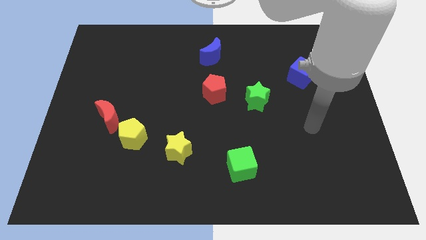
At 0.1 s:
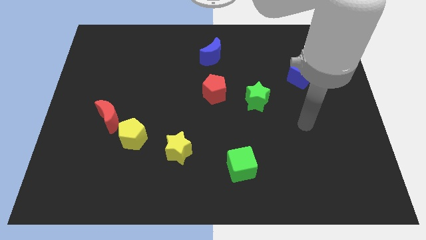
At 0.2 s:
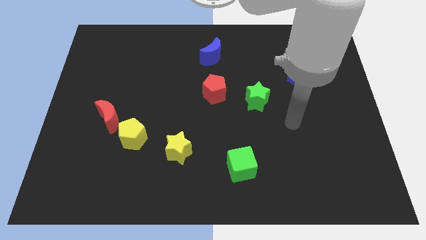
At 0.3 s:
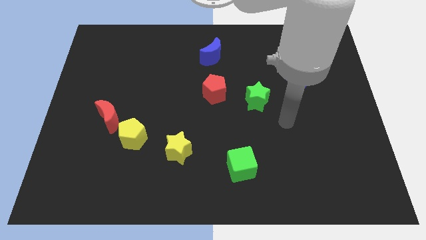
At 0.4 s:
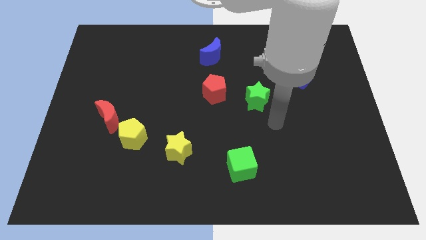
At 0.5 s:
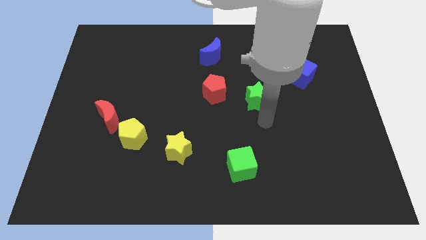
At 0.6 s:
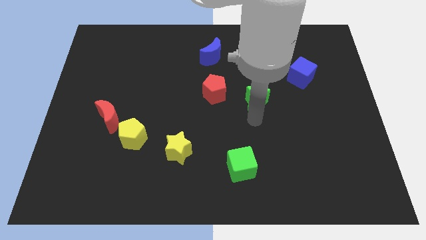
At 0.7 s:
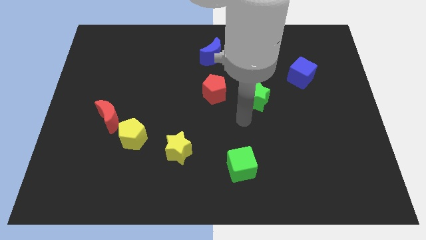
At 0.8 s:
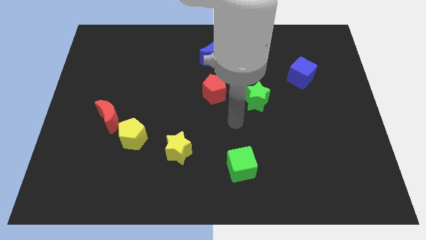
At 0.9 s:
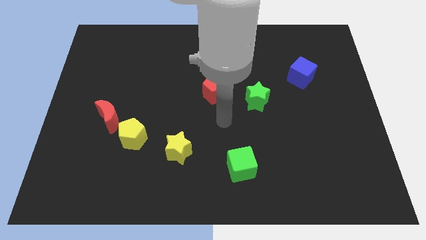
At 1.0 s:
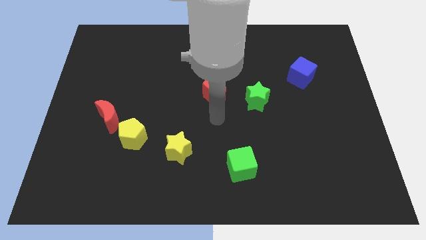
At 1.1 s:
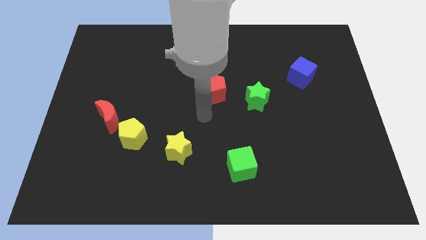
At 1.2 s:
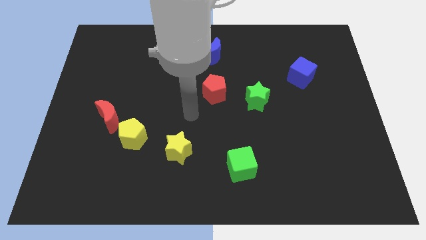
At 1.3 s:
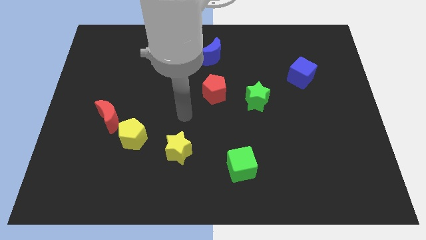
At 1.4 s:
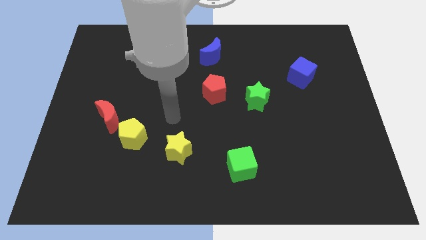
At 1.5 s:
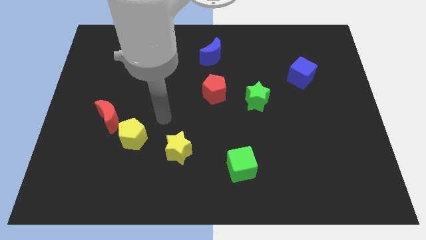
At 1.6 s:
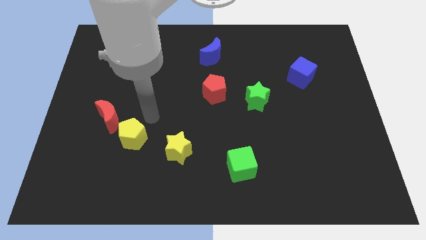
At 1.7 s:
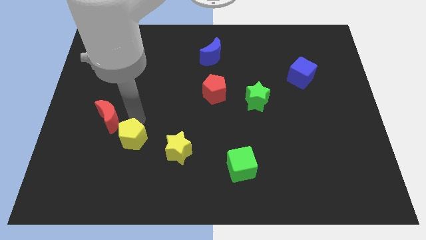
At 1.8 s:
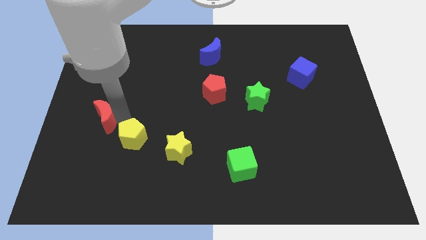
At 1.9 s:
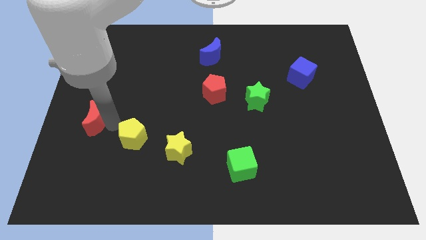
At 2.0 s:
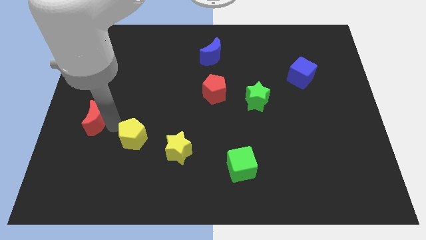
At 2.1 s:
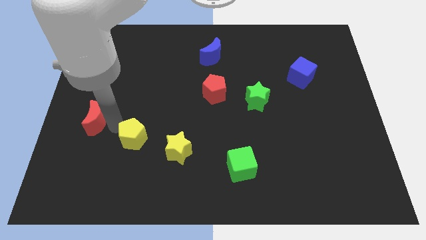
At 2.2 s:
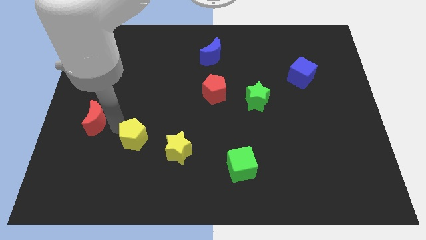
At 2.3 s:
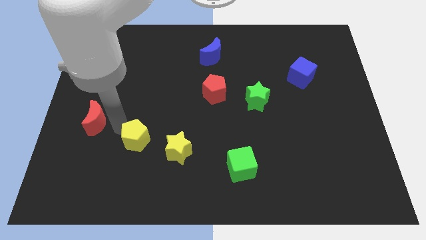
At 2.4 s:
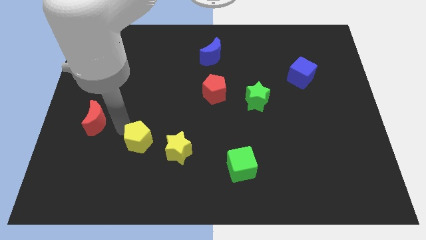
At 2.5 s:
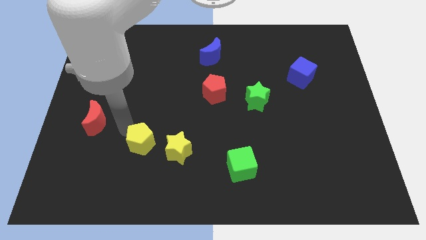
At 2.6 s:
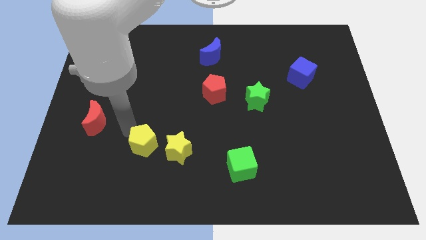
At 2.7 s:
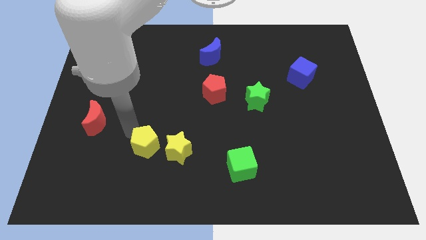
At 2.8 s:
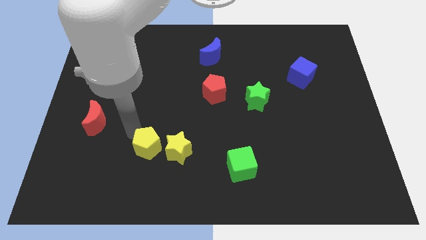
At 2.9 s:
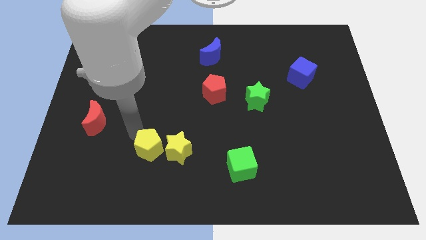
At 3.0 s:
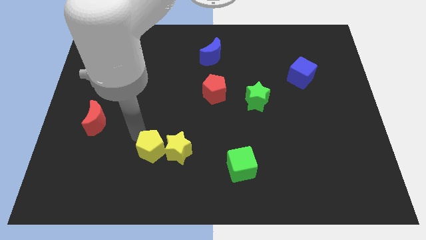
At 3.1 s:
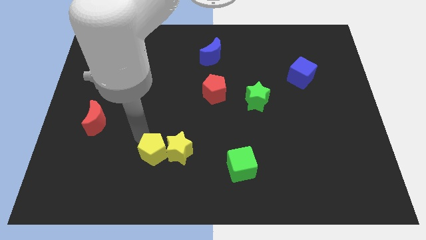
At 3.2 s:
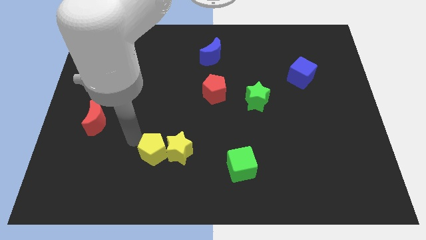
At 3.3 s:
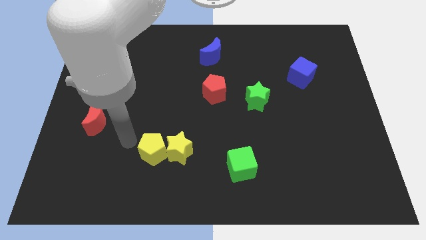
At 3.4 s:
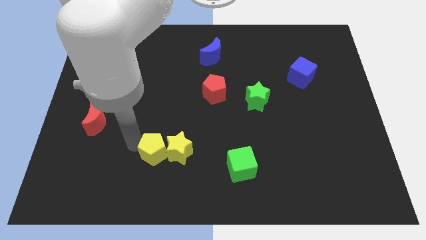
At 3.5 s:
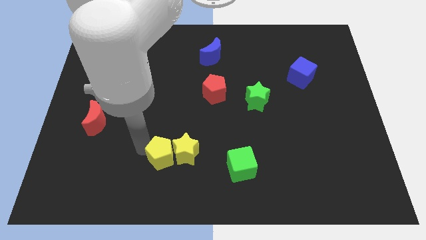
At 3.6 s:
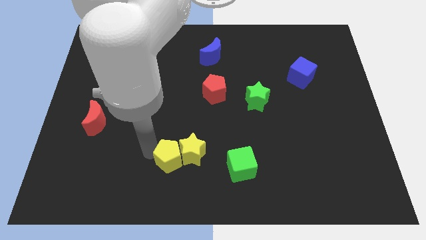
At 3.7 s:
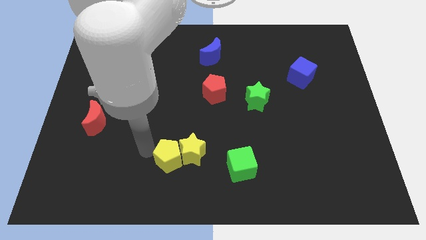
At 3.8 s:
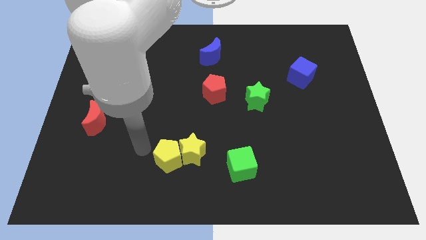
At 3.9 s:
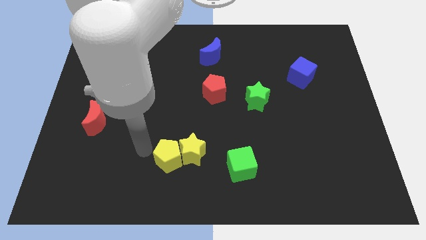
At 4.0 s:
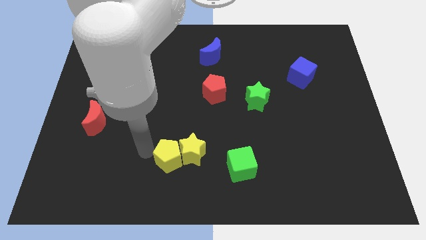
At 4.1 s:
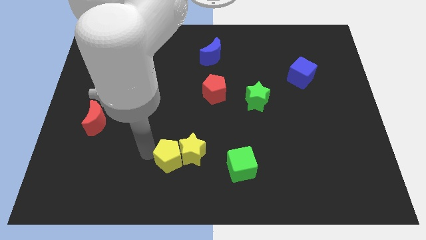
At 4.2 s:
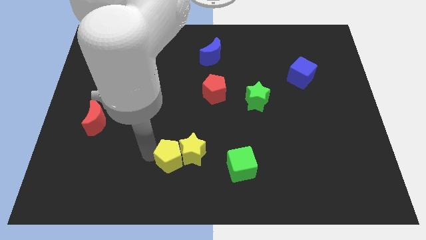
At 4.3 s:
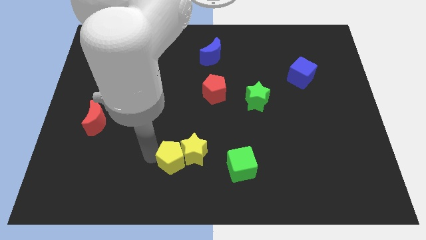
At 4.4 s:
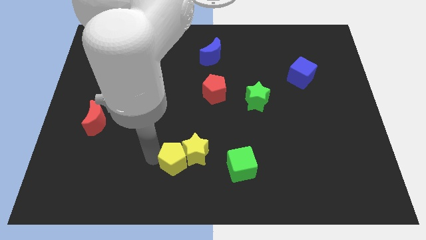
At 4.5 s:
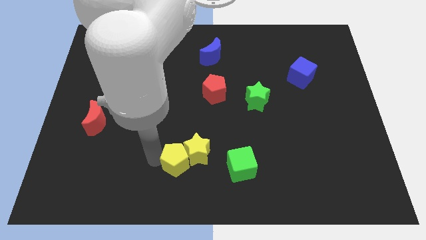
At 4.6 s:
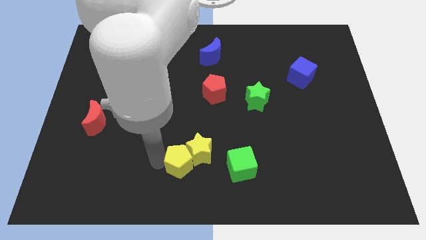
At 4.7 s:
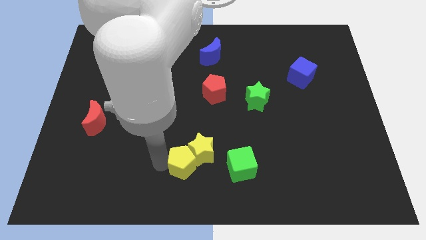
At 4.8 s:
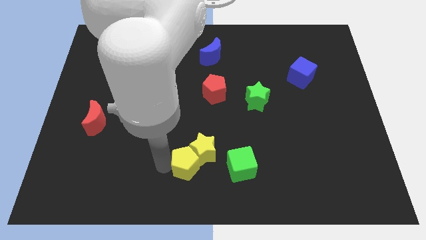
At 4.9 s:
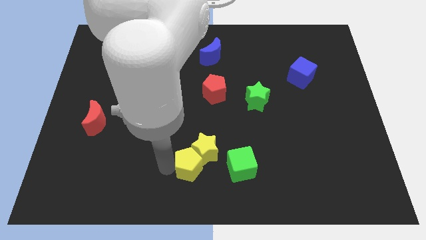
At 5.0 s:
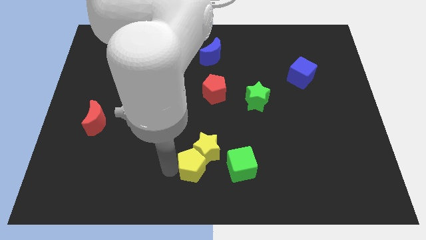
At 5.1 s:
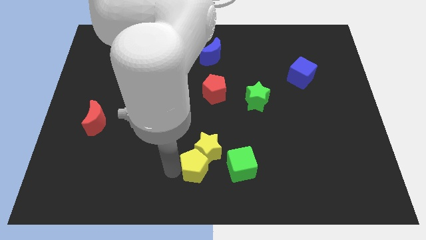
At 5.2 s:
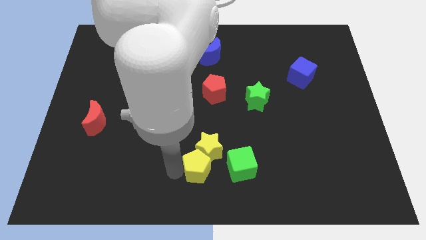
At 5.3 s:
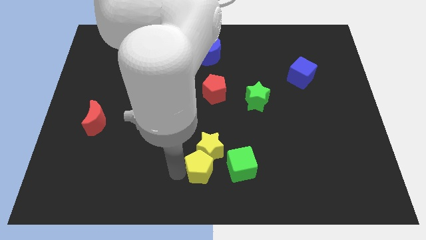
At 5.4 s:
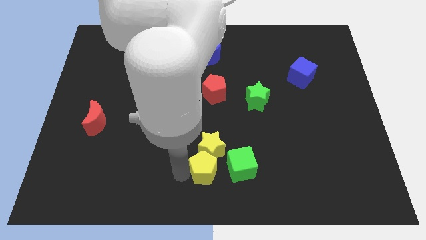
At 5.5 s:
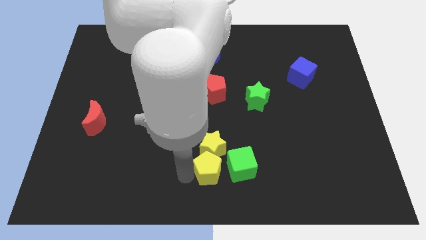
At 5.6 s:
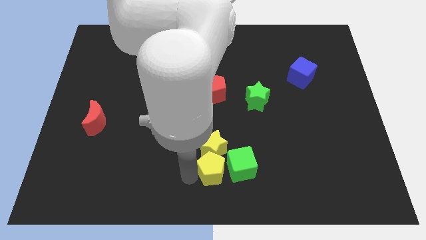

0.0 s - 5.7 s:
put the yellow pentagon close to the green cube

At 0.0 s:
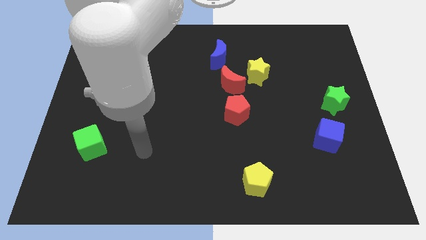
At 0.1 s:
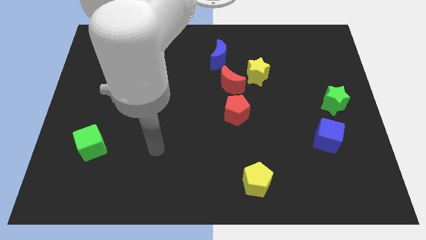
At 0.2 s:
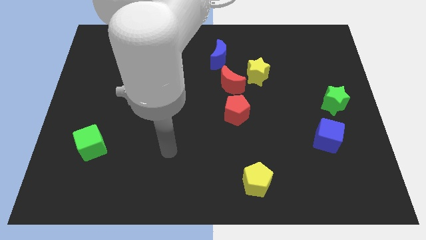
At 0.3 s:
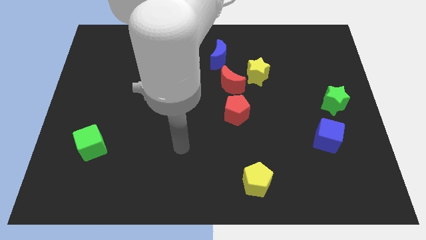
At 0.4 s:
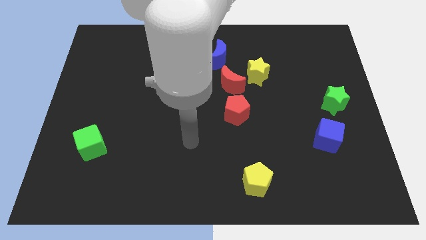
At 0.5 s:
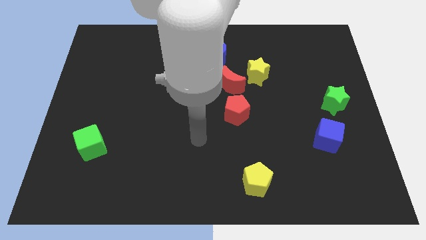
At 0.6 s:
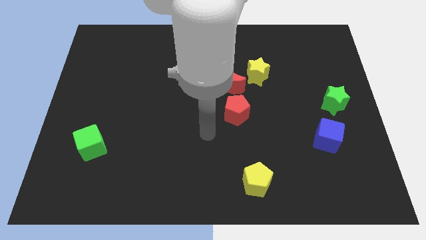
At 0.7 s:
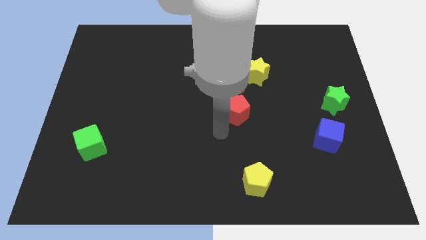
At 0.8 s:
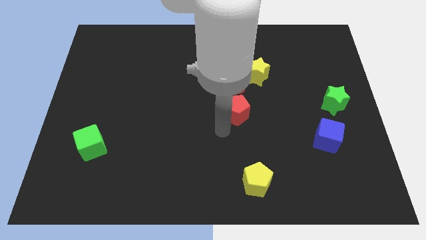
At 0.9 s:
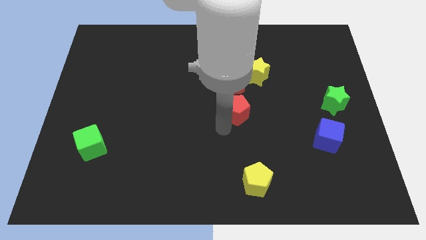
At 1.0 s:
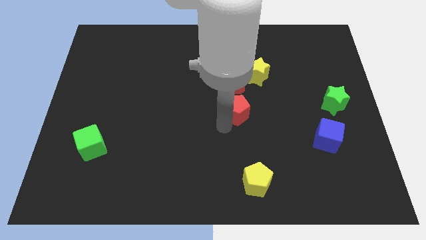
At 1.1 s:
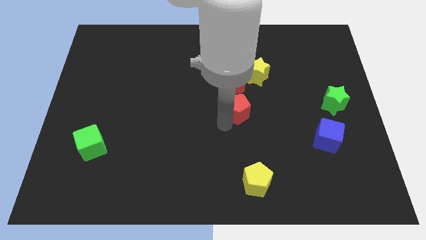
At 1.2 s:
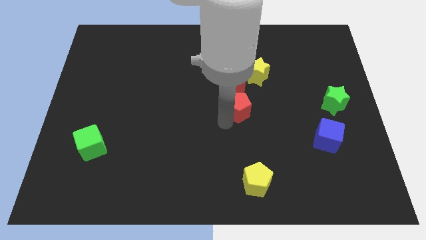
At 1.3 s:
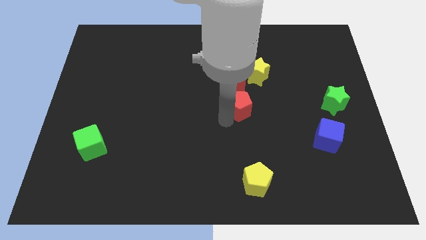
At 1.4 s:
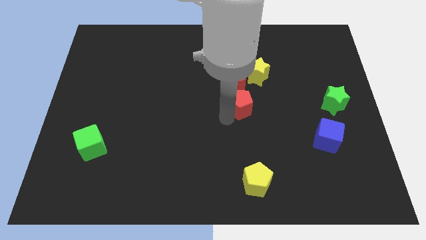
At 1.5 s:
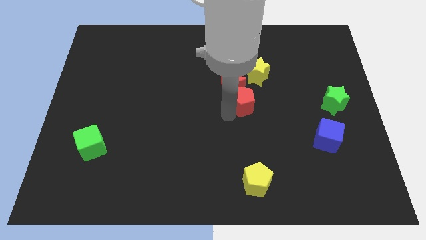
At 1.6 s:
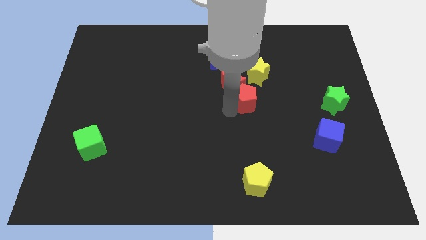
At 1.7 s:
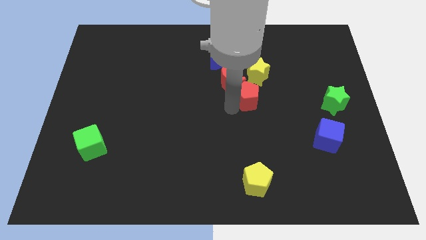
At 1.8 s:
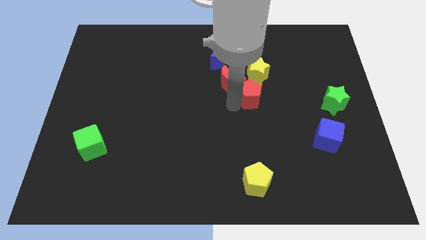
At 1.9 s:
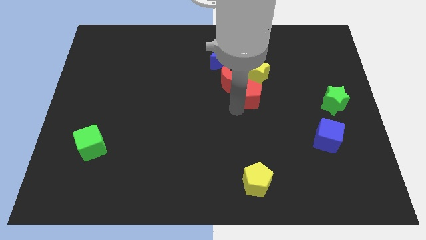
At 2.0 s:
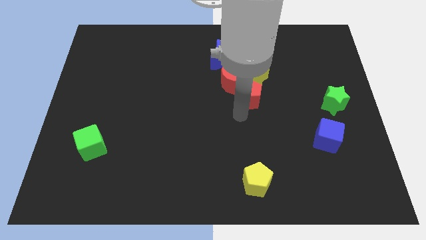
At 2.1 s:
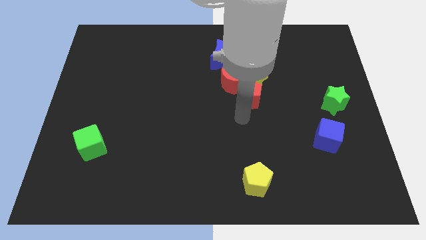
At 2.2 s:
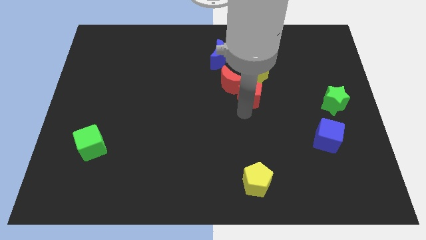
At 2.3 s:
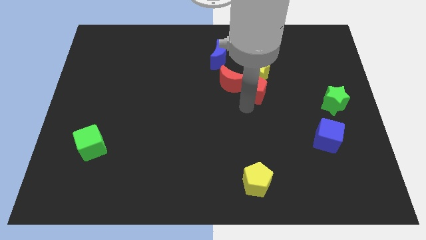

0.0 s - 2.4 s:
push the red pentagon to the yellow star
